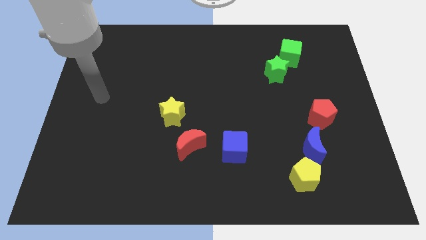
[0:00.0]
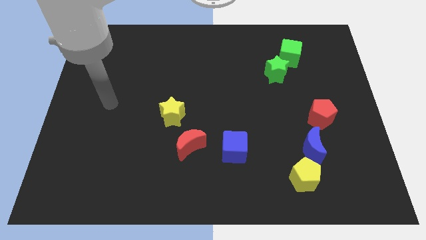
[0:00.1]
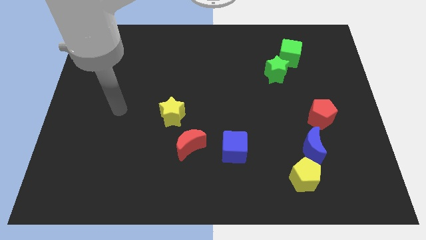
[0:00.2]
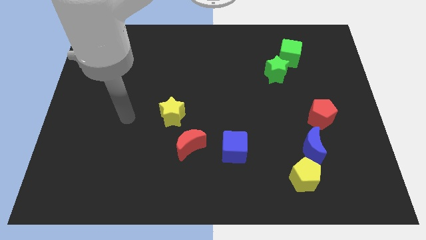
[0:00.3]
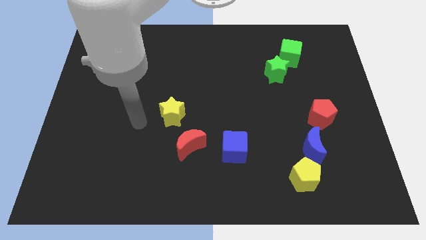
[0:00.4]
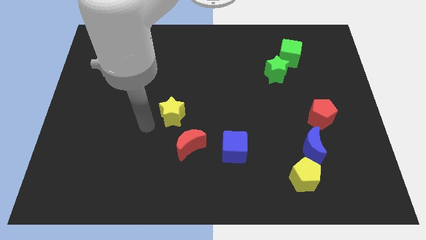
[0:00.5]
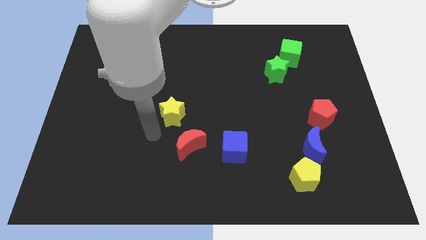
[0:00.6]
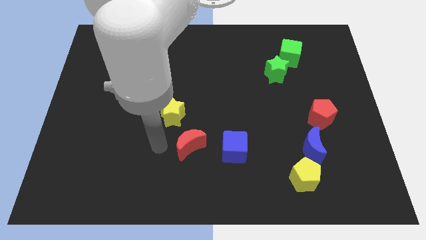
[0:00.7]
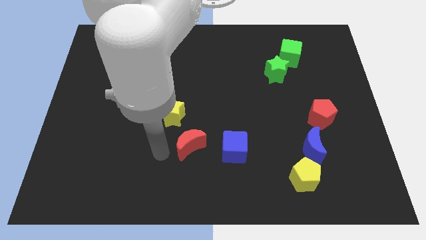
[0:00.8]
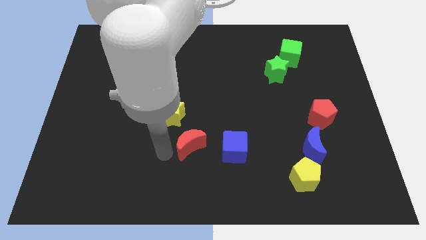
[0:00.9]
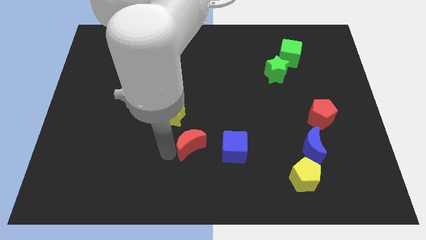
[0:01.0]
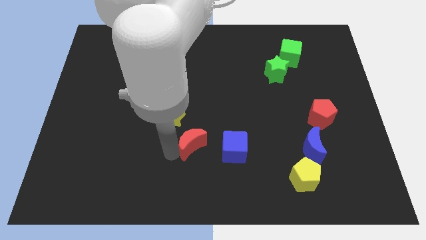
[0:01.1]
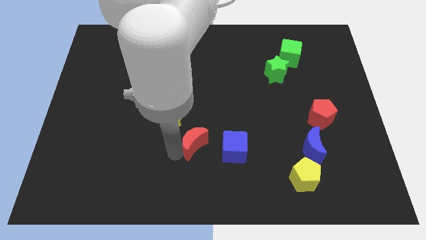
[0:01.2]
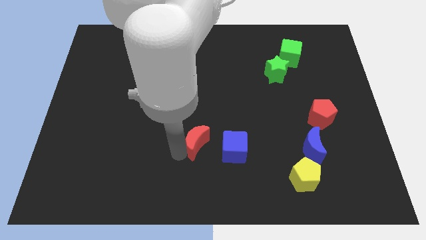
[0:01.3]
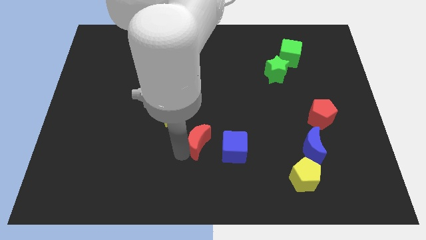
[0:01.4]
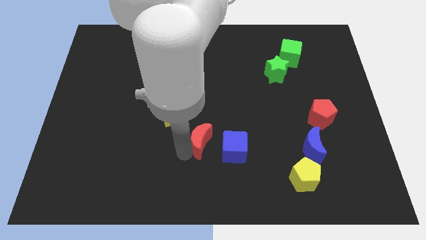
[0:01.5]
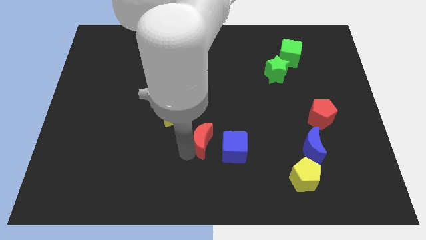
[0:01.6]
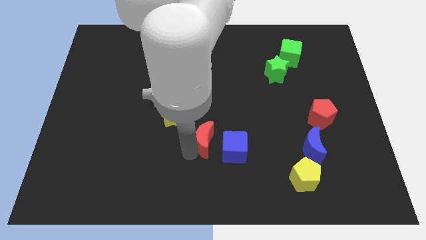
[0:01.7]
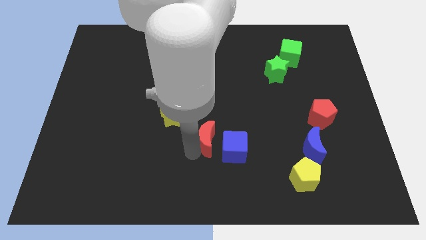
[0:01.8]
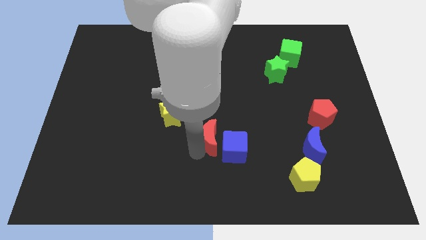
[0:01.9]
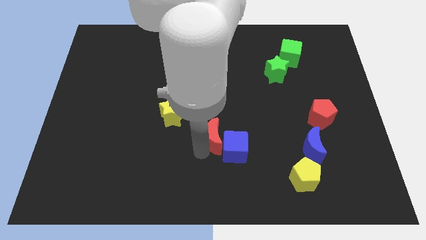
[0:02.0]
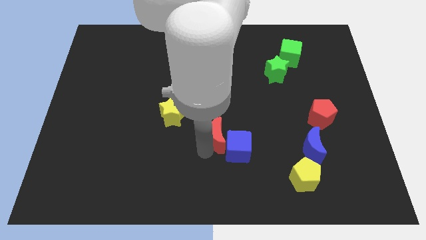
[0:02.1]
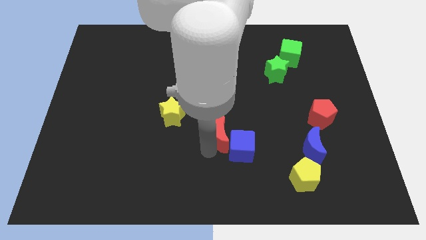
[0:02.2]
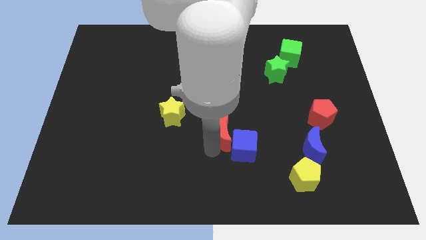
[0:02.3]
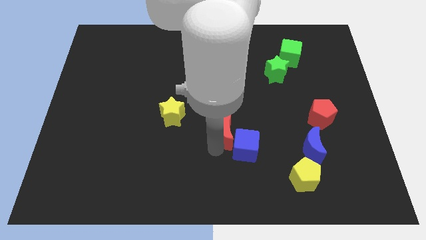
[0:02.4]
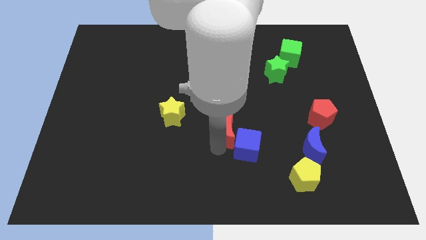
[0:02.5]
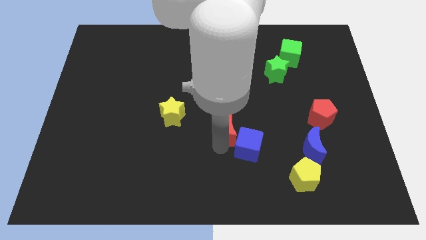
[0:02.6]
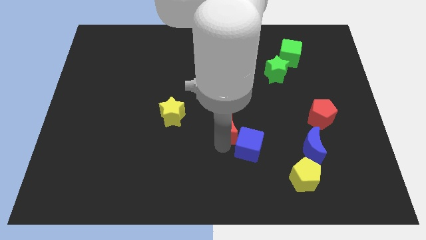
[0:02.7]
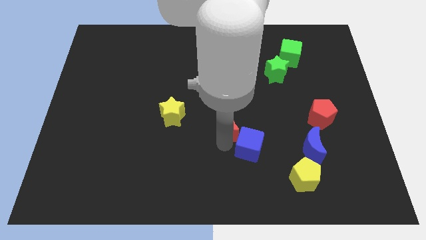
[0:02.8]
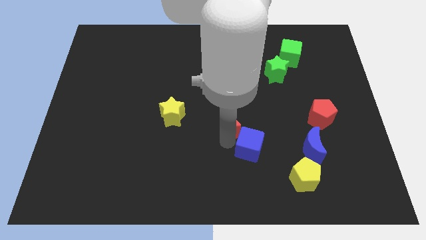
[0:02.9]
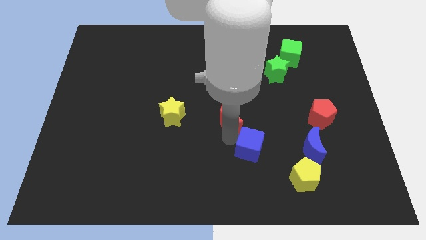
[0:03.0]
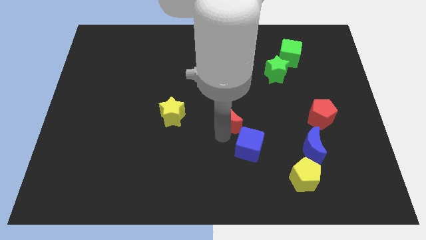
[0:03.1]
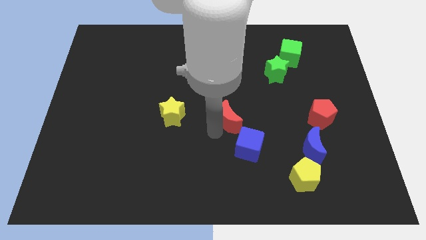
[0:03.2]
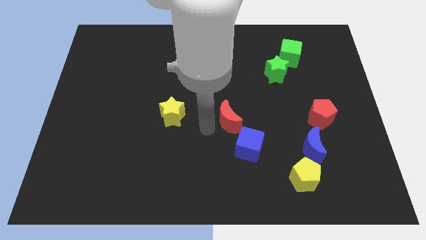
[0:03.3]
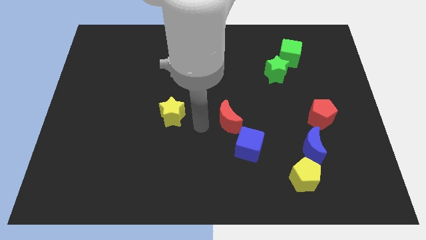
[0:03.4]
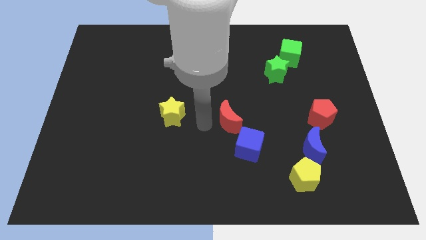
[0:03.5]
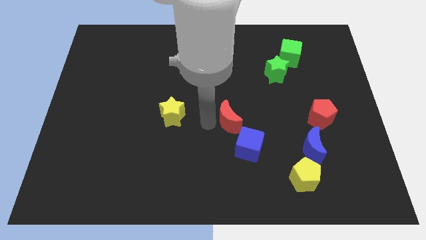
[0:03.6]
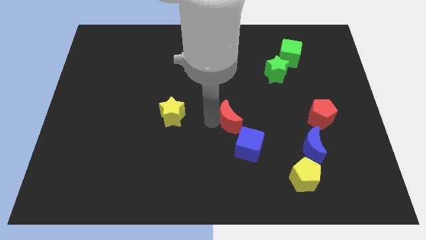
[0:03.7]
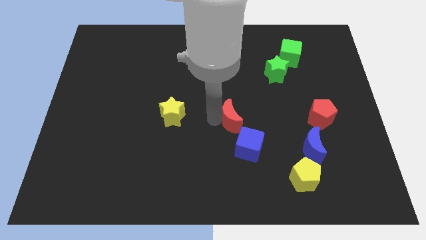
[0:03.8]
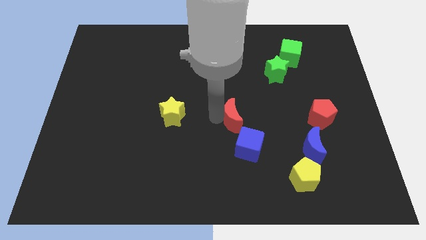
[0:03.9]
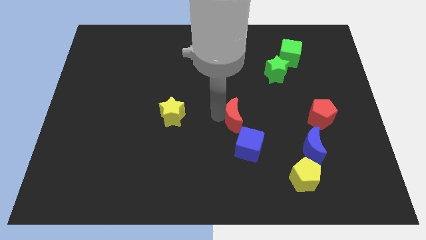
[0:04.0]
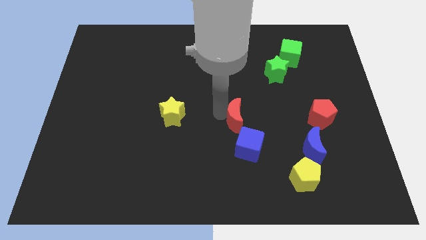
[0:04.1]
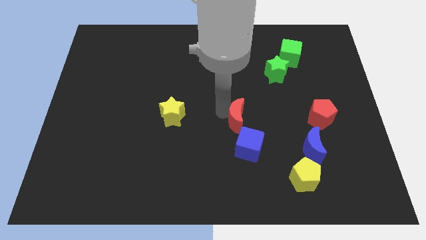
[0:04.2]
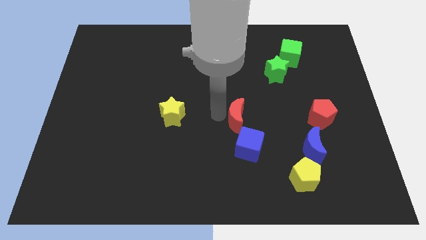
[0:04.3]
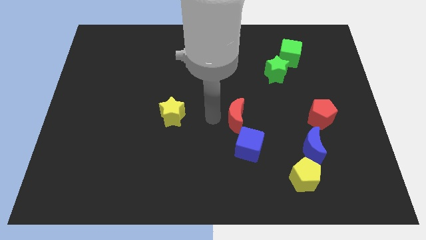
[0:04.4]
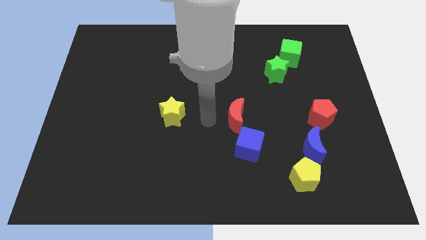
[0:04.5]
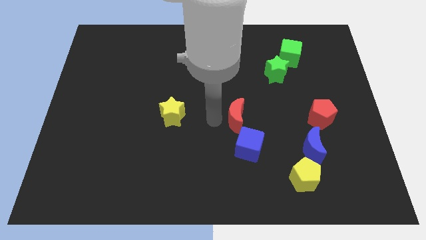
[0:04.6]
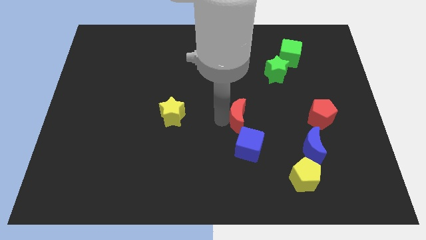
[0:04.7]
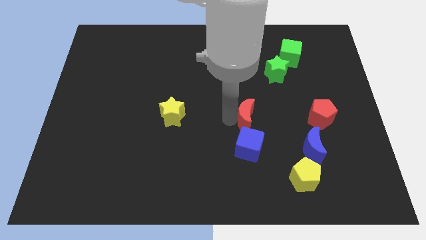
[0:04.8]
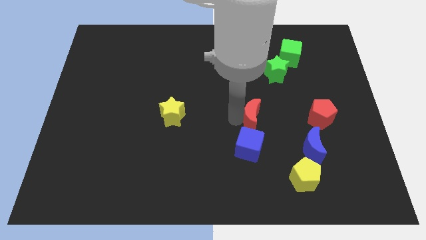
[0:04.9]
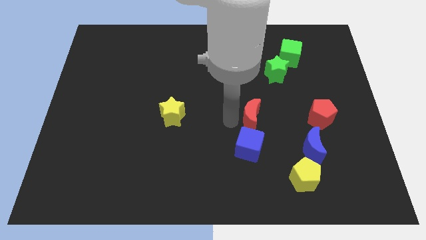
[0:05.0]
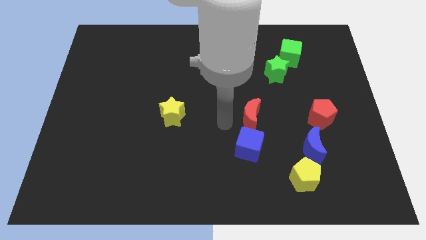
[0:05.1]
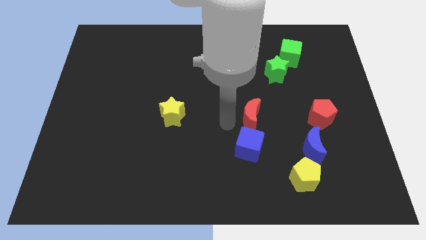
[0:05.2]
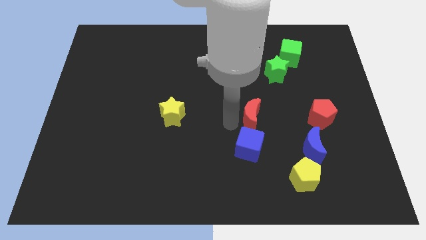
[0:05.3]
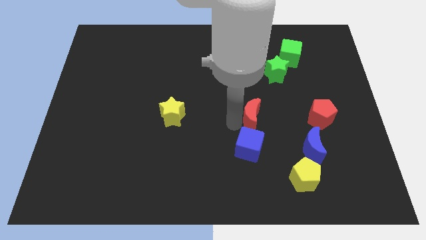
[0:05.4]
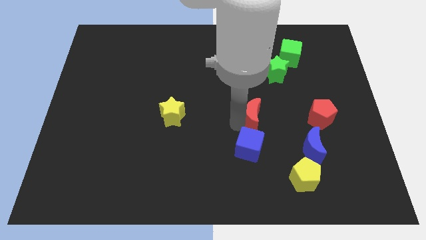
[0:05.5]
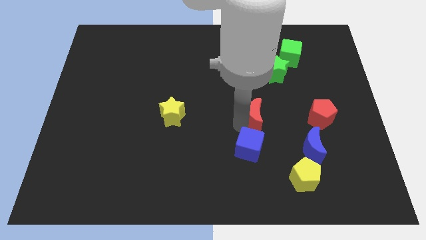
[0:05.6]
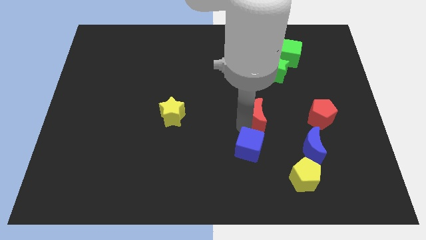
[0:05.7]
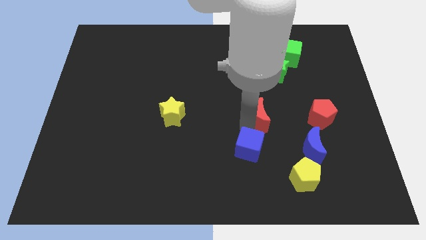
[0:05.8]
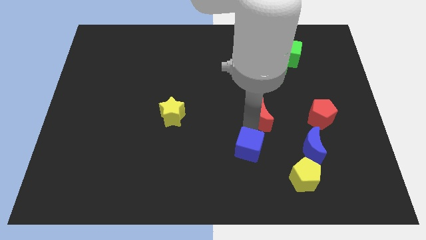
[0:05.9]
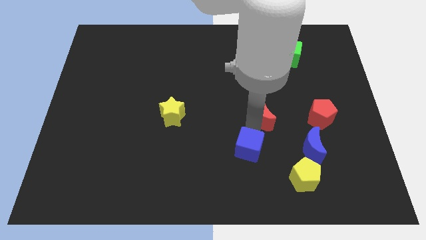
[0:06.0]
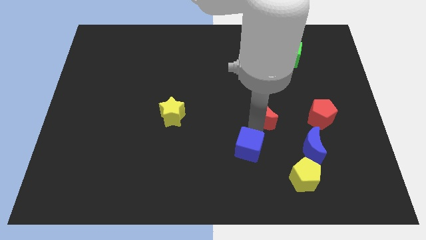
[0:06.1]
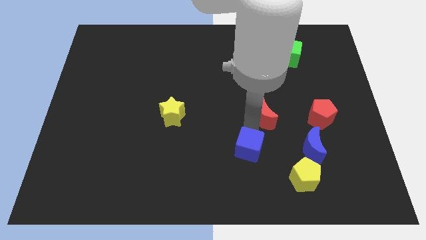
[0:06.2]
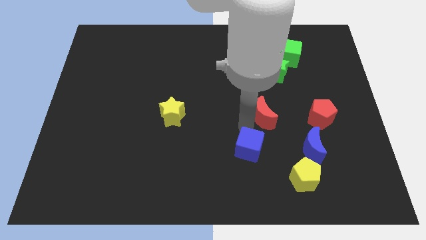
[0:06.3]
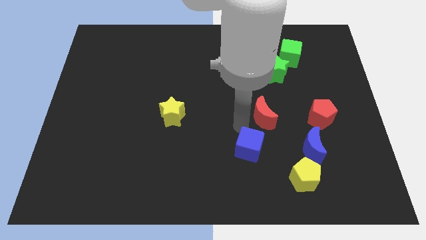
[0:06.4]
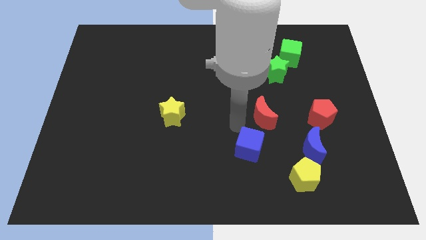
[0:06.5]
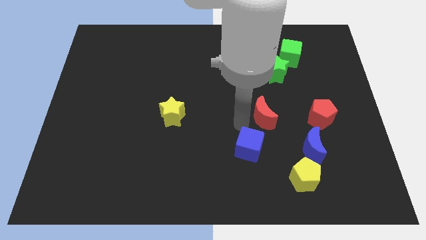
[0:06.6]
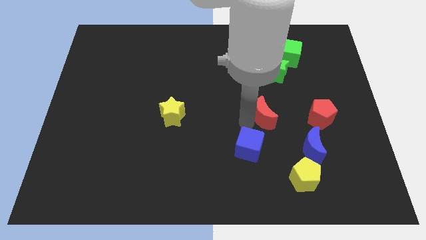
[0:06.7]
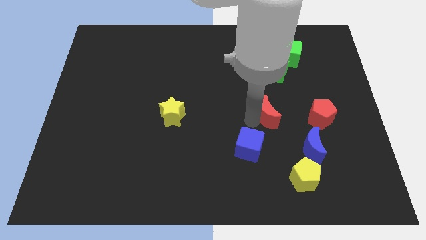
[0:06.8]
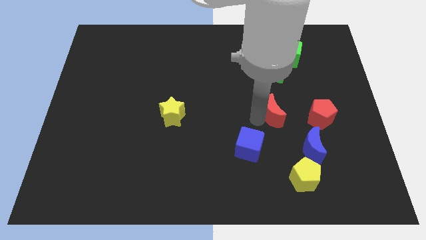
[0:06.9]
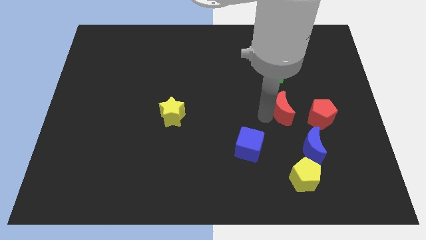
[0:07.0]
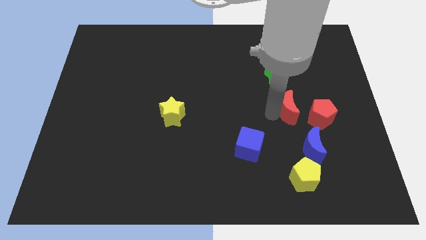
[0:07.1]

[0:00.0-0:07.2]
put the red moon to the top of the blue moon
